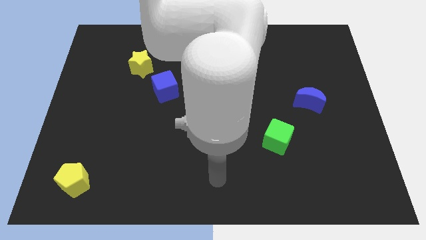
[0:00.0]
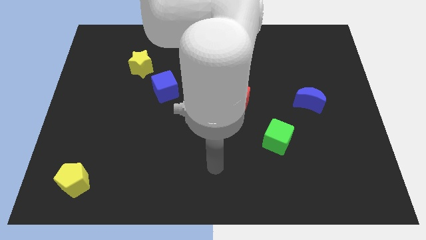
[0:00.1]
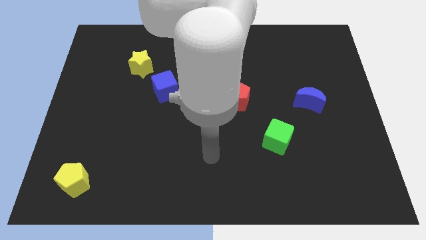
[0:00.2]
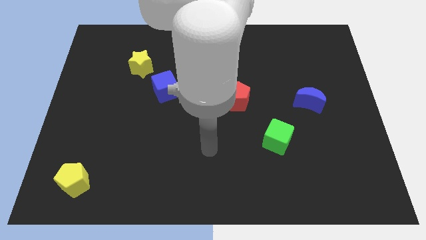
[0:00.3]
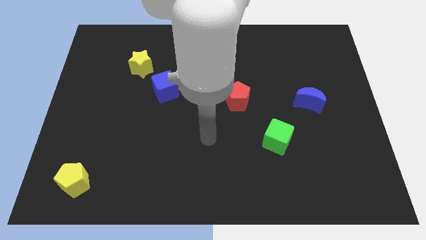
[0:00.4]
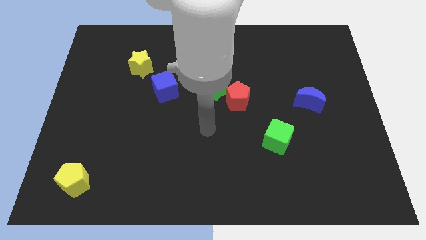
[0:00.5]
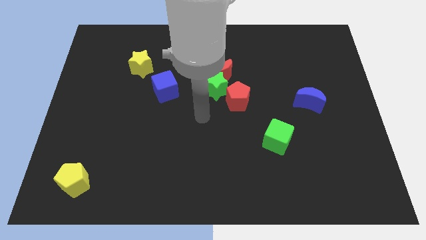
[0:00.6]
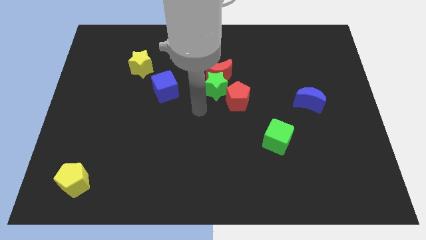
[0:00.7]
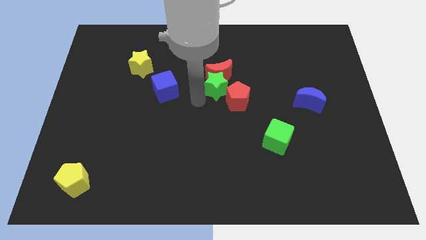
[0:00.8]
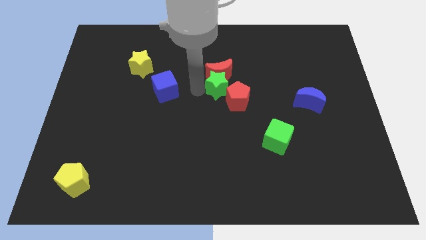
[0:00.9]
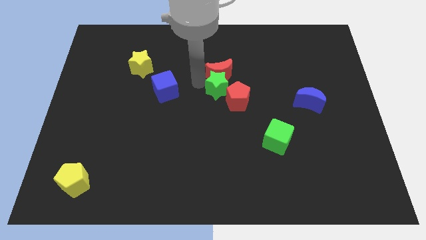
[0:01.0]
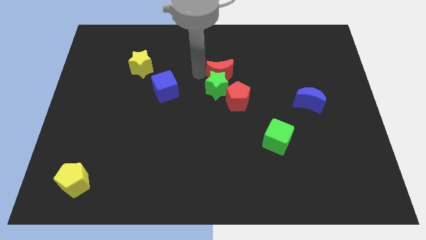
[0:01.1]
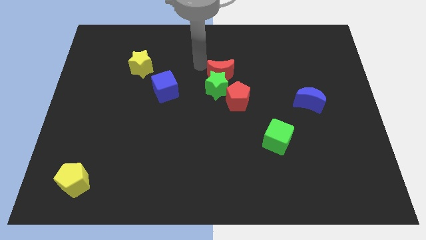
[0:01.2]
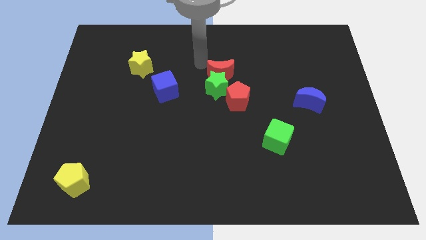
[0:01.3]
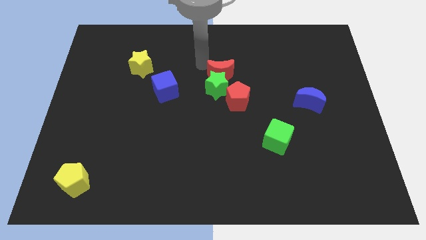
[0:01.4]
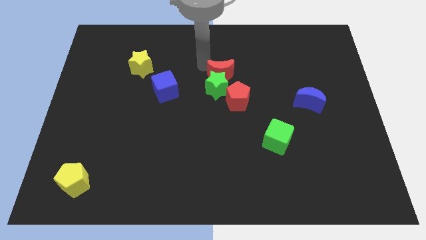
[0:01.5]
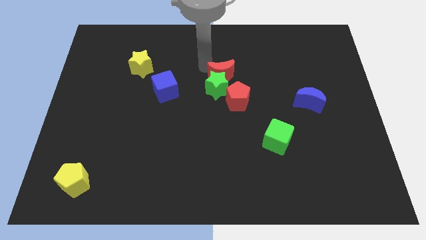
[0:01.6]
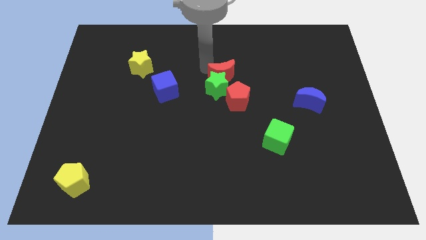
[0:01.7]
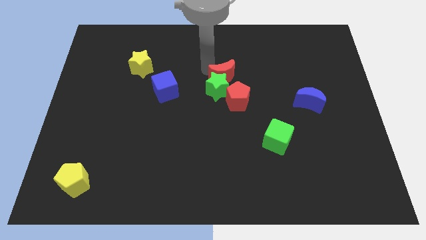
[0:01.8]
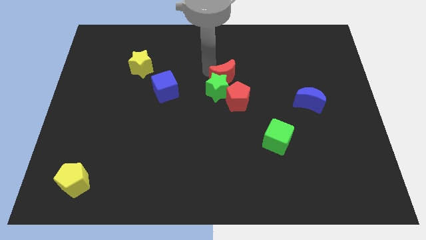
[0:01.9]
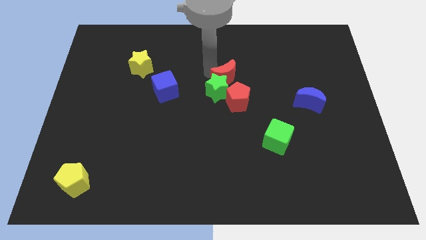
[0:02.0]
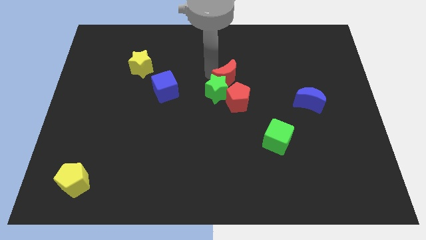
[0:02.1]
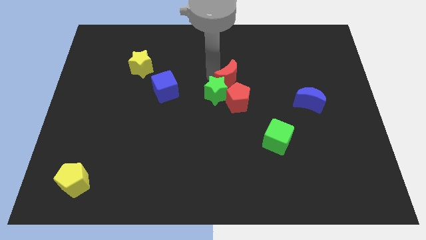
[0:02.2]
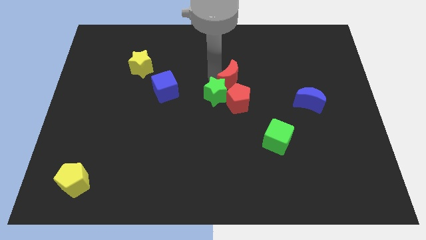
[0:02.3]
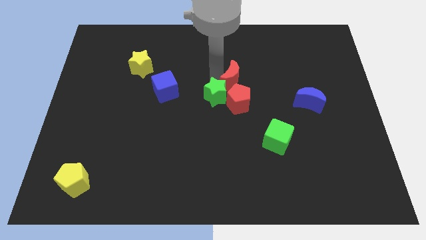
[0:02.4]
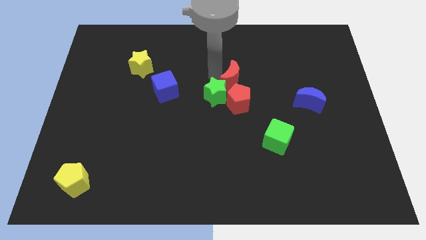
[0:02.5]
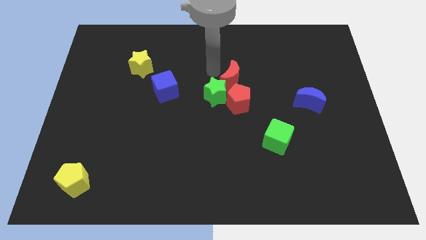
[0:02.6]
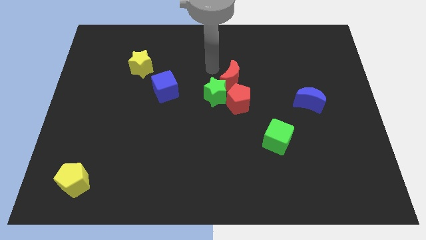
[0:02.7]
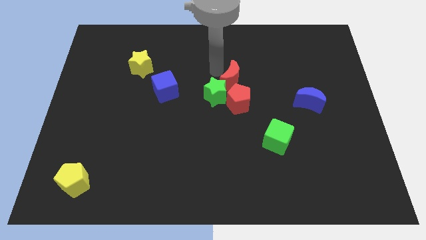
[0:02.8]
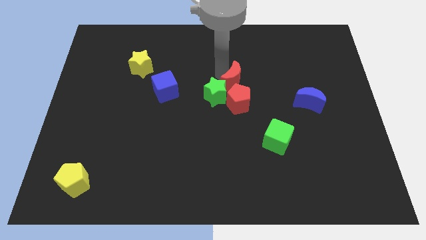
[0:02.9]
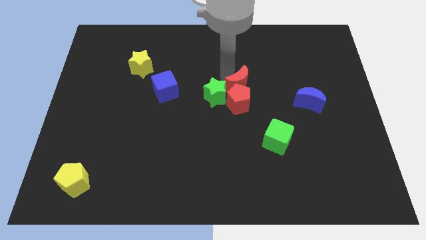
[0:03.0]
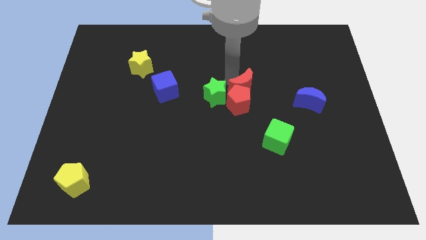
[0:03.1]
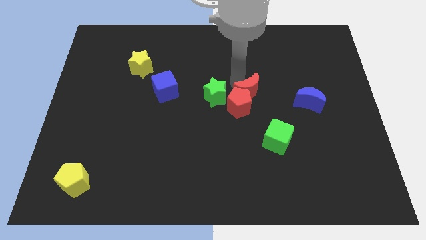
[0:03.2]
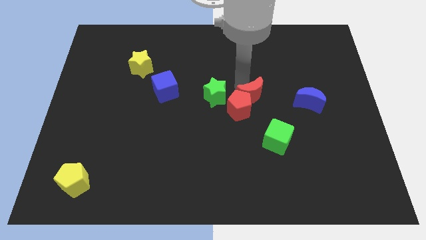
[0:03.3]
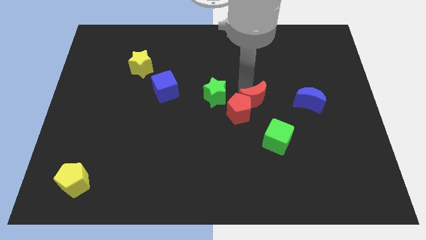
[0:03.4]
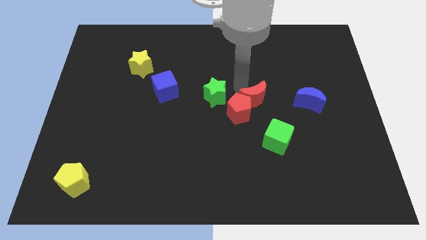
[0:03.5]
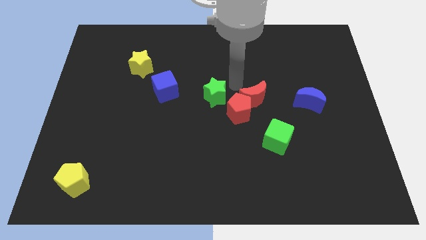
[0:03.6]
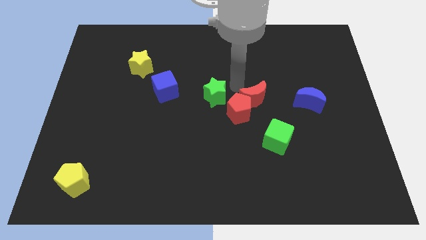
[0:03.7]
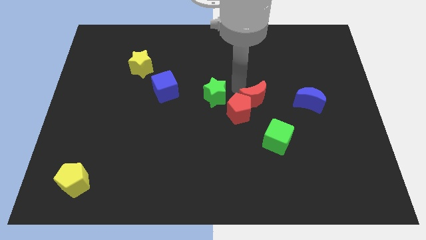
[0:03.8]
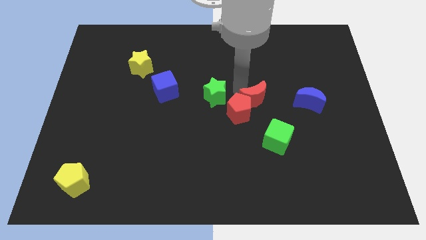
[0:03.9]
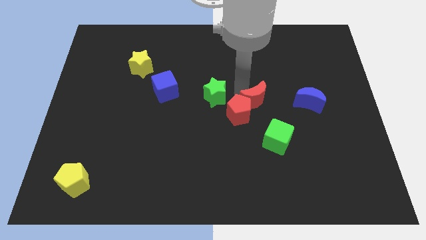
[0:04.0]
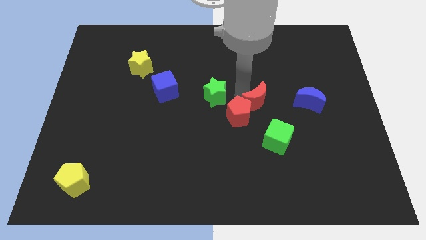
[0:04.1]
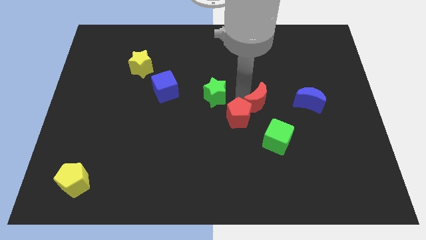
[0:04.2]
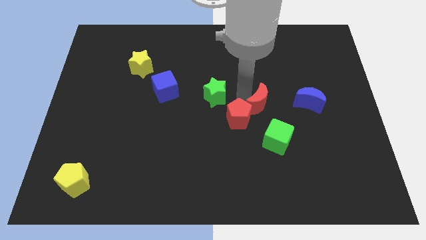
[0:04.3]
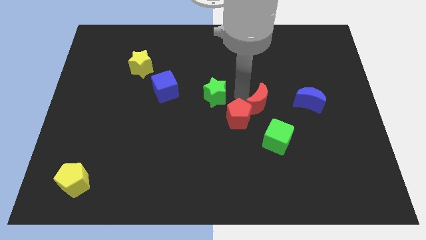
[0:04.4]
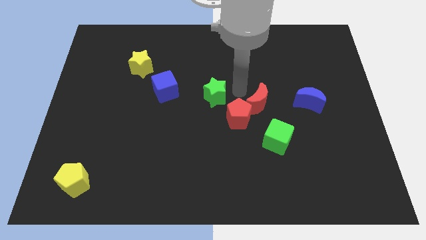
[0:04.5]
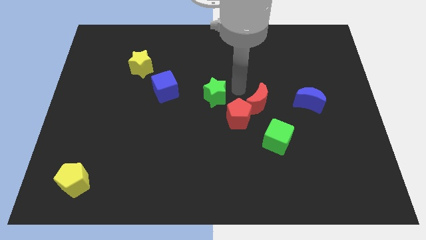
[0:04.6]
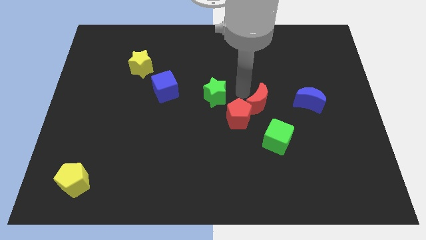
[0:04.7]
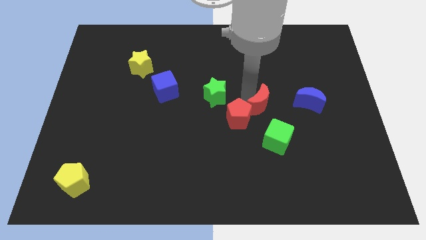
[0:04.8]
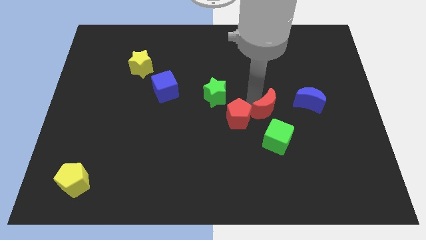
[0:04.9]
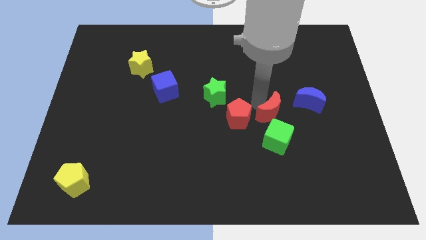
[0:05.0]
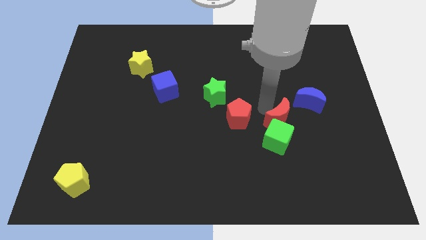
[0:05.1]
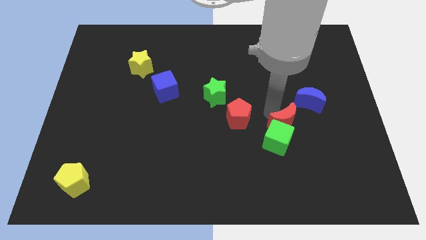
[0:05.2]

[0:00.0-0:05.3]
move the red moon diagonally downwards and right

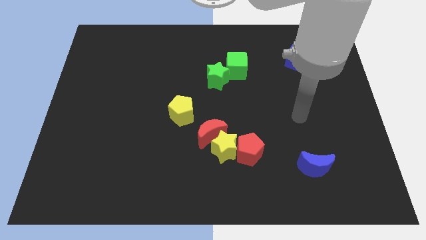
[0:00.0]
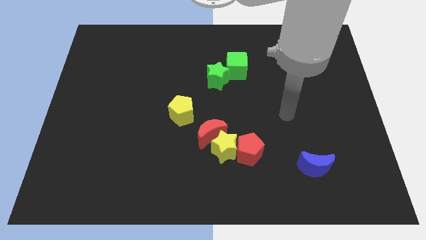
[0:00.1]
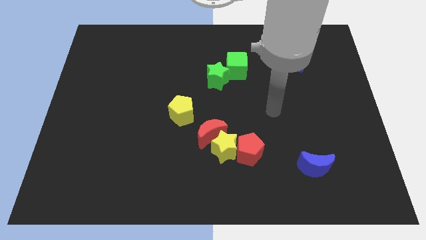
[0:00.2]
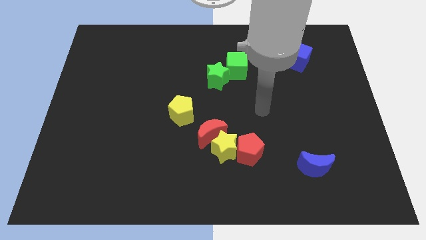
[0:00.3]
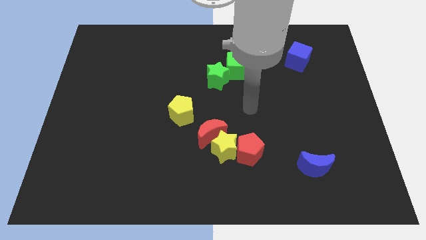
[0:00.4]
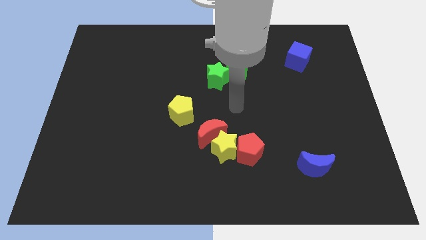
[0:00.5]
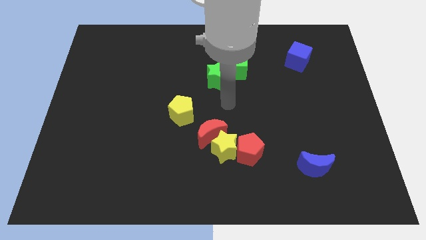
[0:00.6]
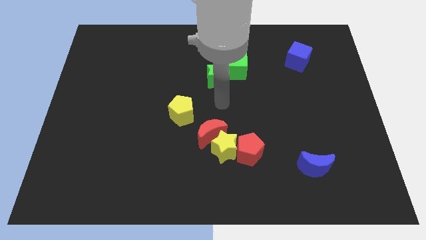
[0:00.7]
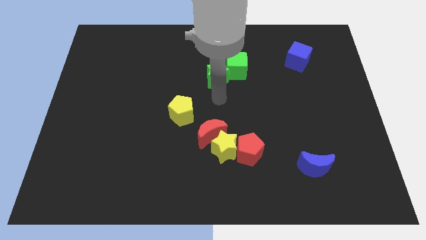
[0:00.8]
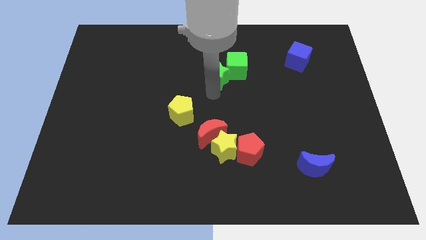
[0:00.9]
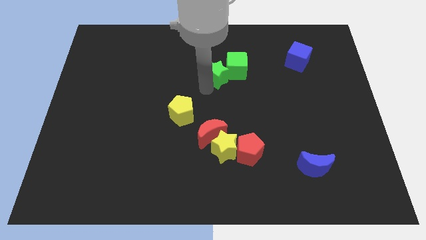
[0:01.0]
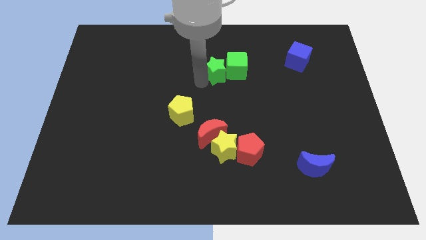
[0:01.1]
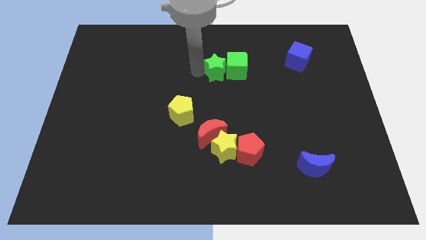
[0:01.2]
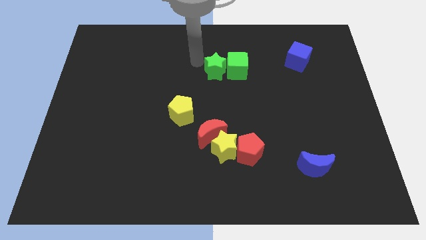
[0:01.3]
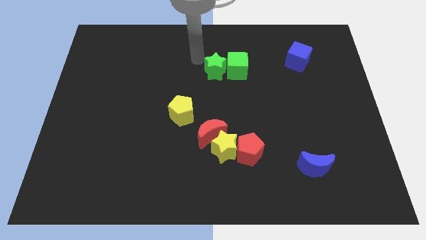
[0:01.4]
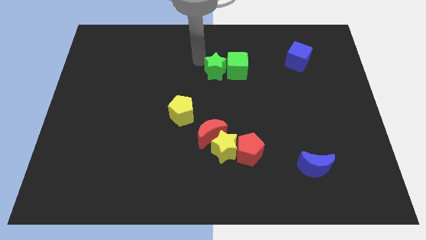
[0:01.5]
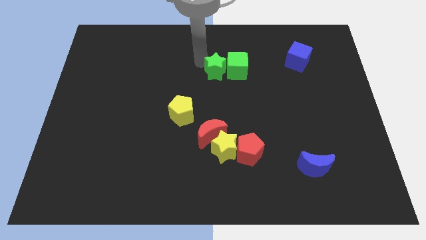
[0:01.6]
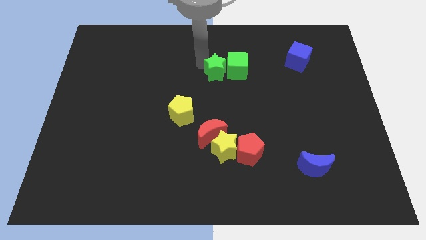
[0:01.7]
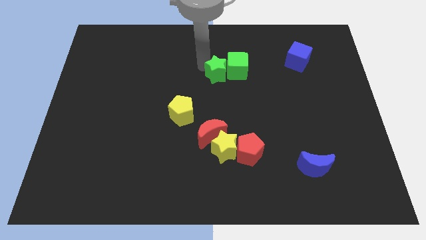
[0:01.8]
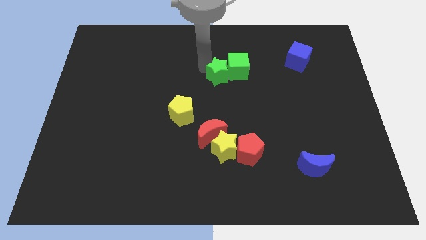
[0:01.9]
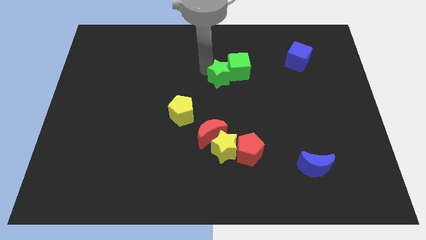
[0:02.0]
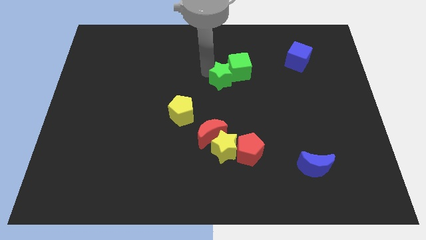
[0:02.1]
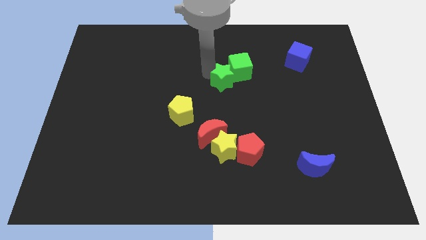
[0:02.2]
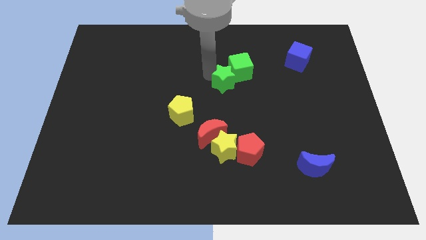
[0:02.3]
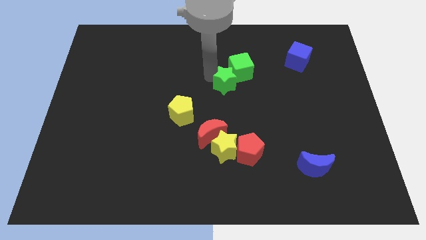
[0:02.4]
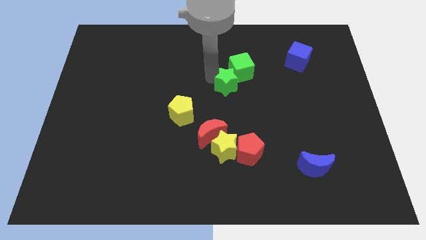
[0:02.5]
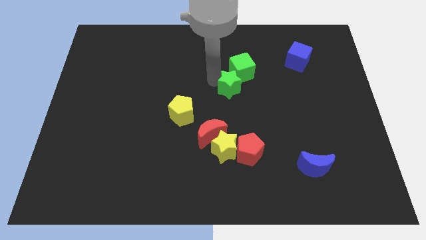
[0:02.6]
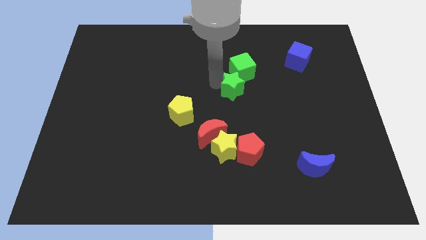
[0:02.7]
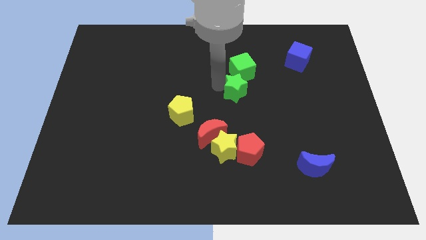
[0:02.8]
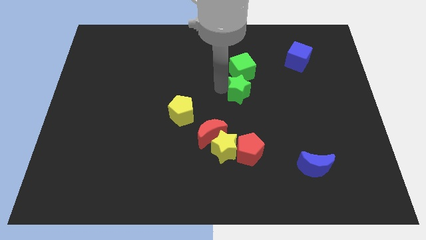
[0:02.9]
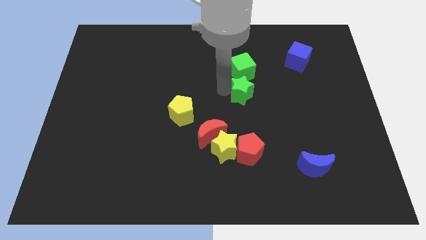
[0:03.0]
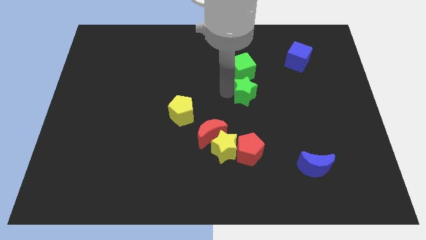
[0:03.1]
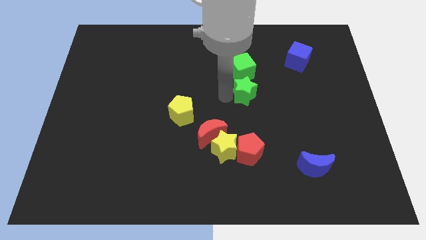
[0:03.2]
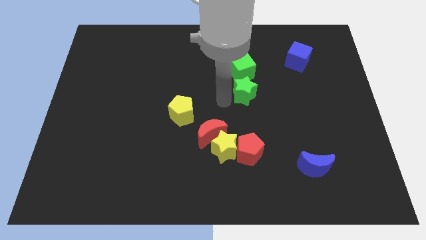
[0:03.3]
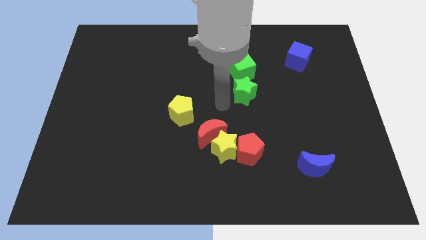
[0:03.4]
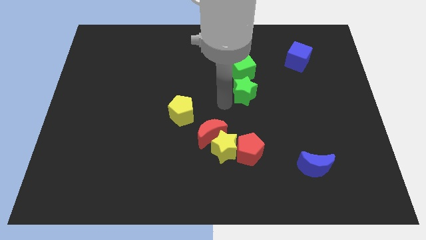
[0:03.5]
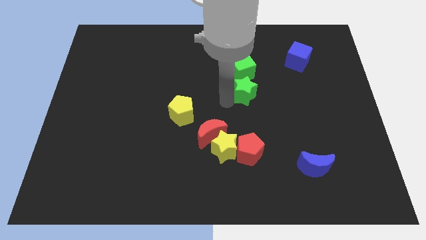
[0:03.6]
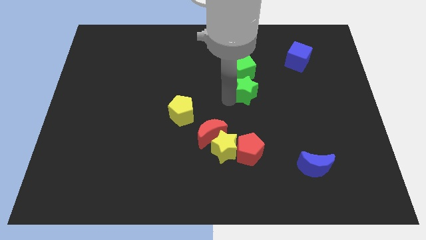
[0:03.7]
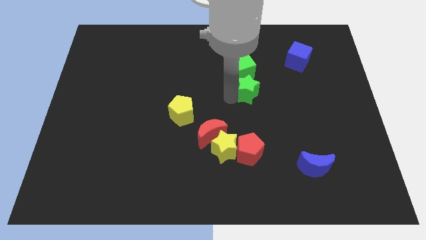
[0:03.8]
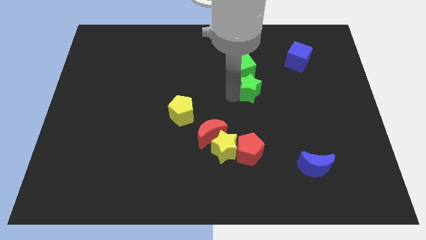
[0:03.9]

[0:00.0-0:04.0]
slightly move the green star right
